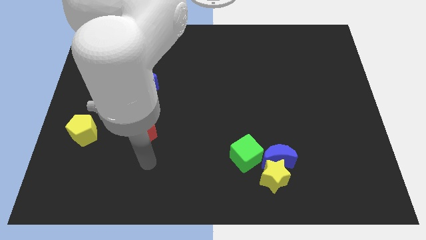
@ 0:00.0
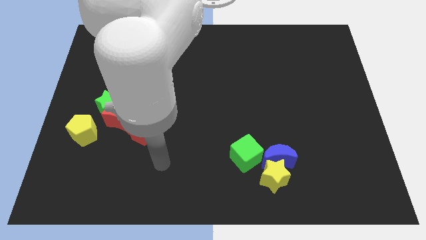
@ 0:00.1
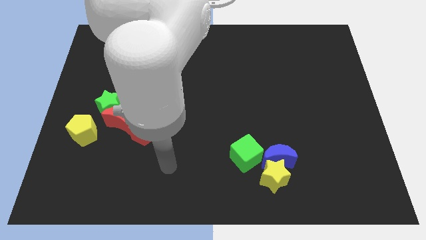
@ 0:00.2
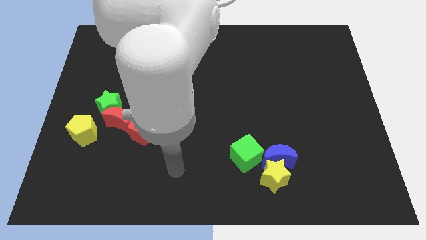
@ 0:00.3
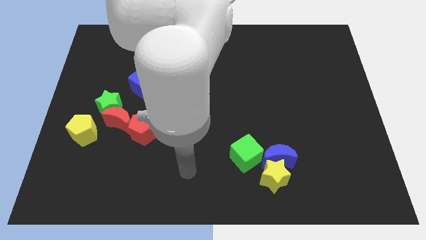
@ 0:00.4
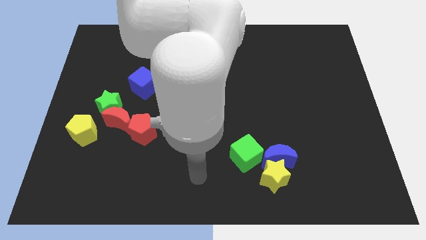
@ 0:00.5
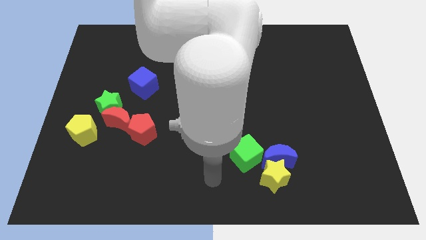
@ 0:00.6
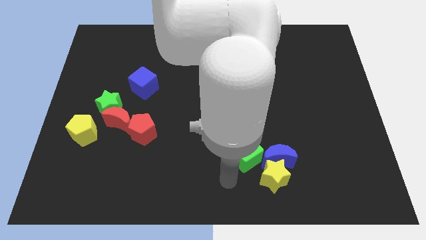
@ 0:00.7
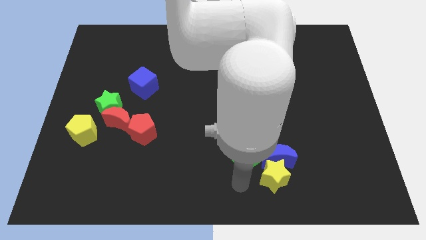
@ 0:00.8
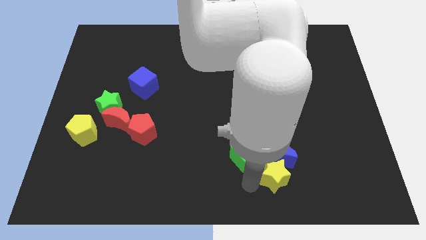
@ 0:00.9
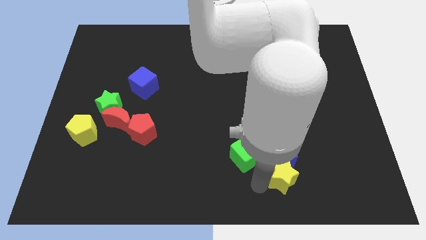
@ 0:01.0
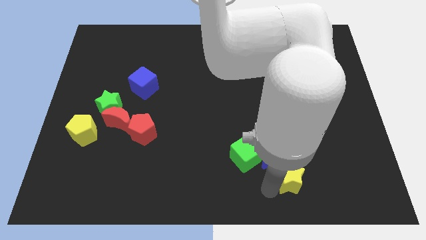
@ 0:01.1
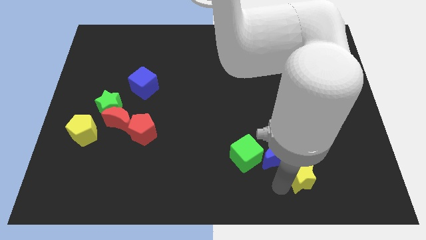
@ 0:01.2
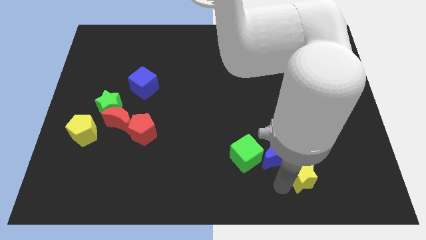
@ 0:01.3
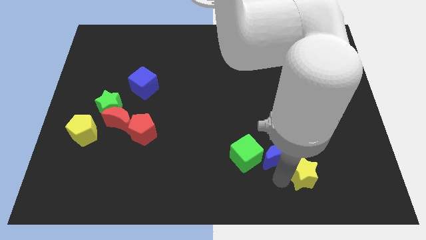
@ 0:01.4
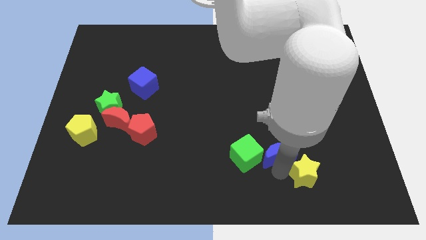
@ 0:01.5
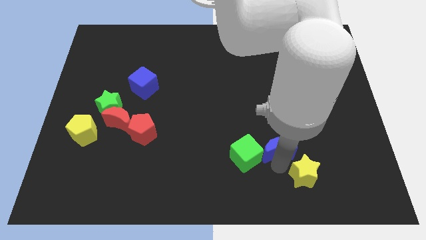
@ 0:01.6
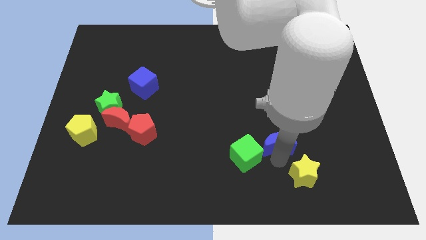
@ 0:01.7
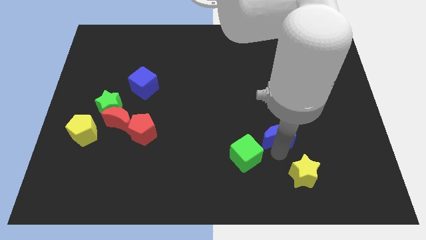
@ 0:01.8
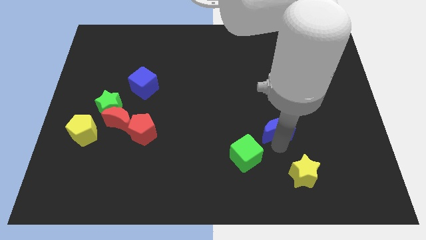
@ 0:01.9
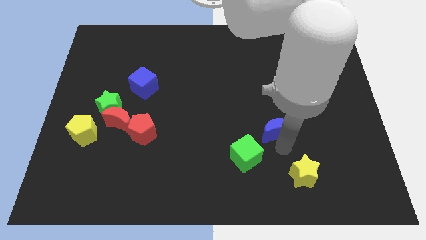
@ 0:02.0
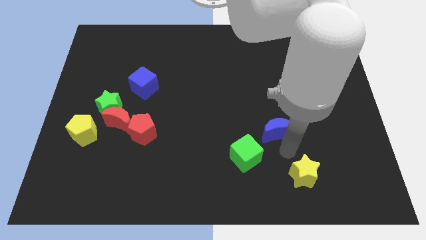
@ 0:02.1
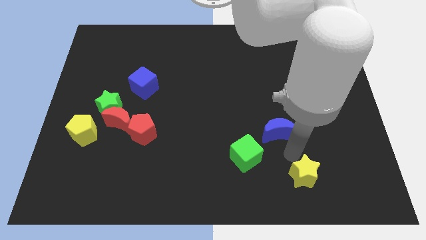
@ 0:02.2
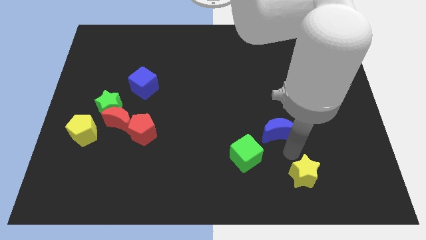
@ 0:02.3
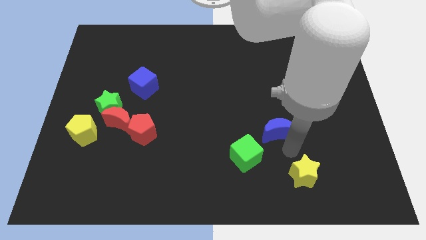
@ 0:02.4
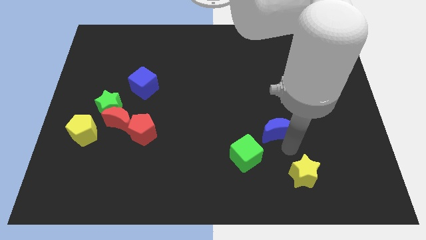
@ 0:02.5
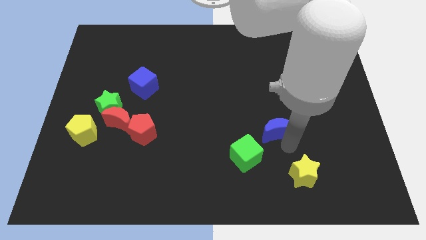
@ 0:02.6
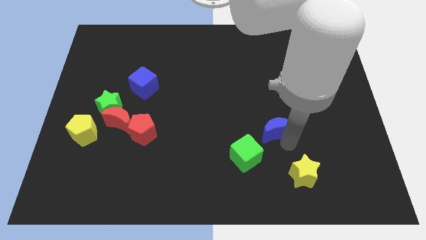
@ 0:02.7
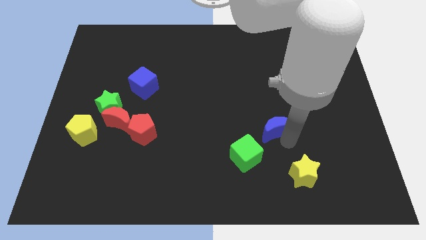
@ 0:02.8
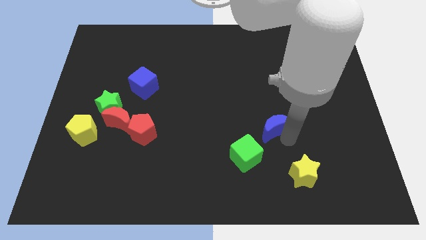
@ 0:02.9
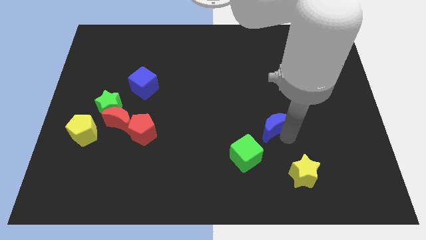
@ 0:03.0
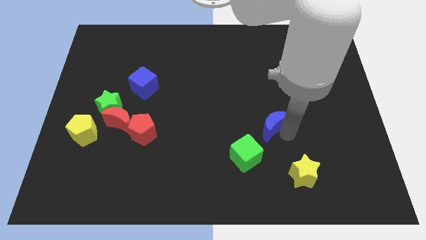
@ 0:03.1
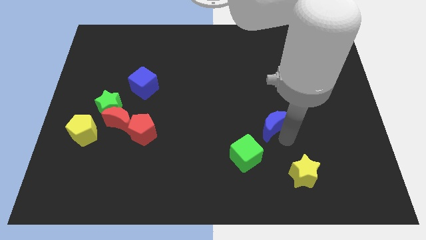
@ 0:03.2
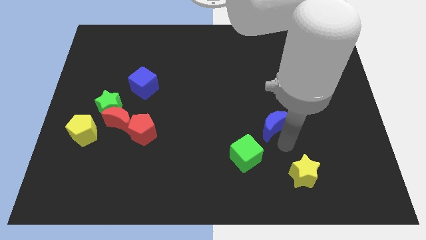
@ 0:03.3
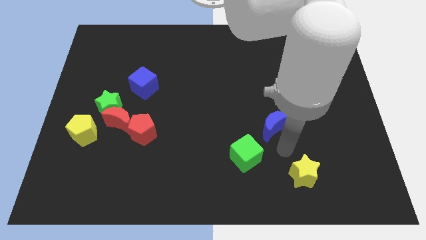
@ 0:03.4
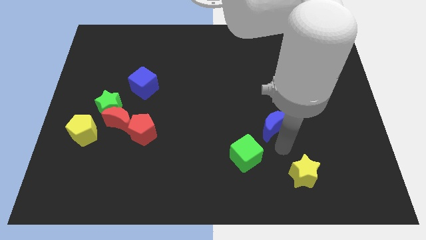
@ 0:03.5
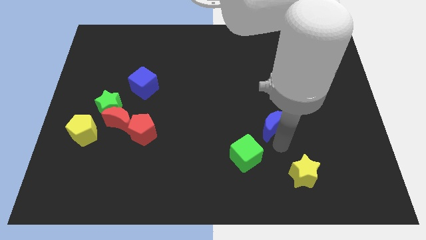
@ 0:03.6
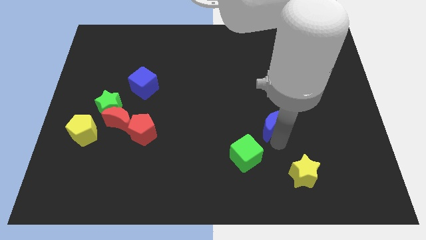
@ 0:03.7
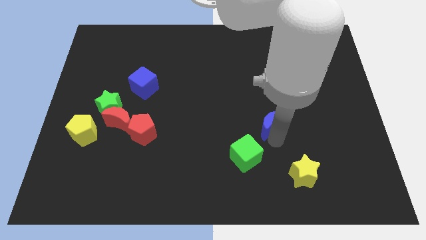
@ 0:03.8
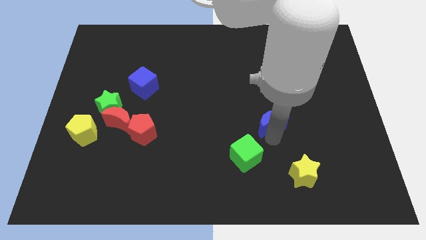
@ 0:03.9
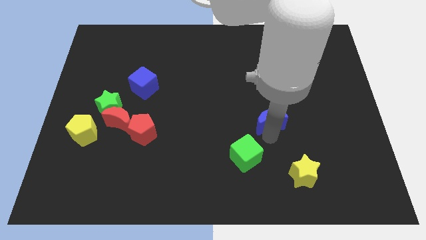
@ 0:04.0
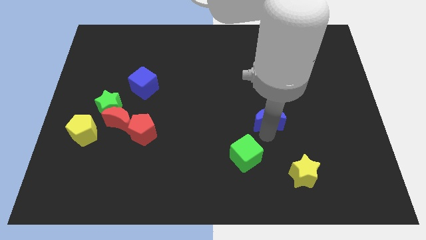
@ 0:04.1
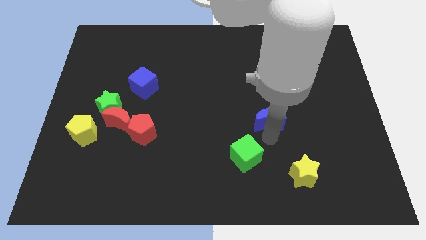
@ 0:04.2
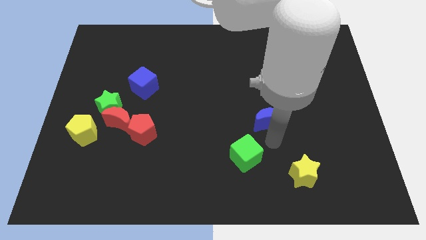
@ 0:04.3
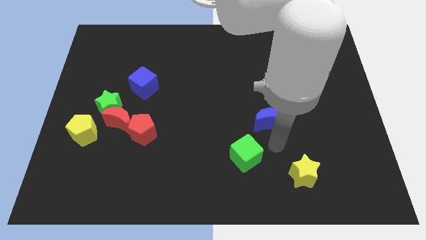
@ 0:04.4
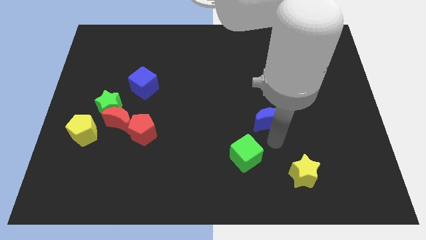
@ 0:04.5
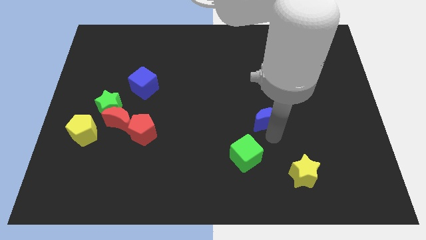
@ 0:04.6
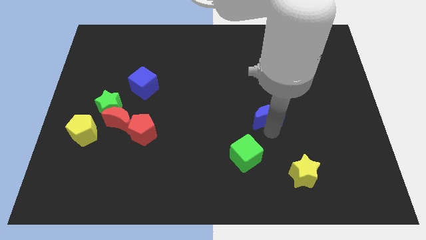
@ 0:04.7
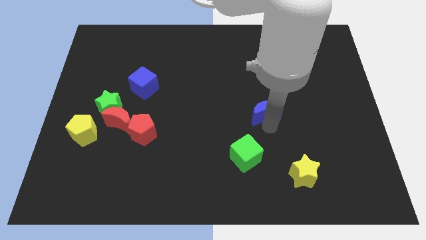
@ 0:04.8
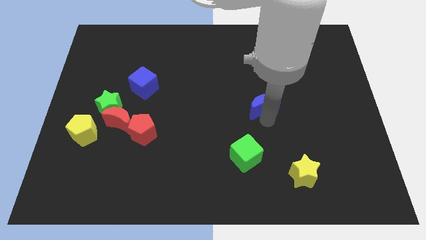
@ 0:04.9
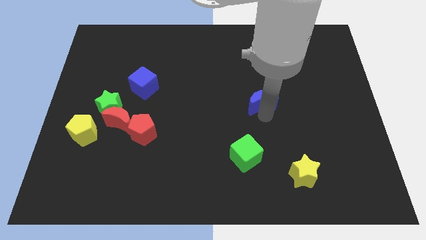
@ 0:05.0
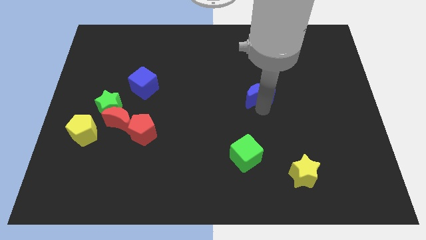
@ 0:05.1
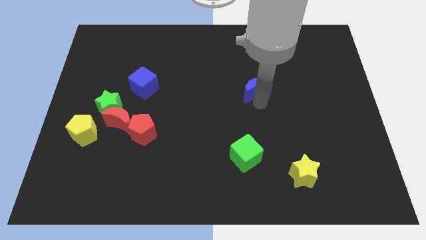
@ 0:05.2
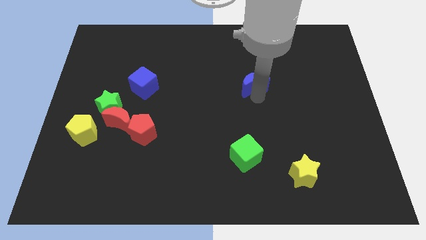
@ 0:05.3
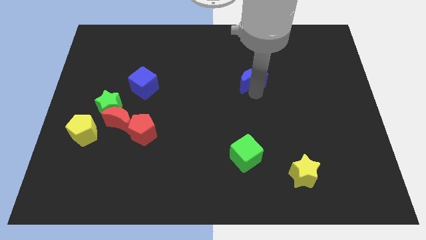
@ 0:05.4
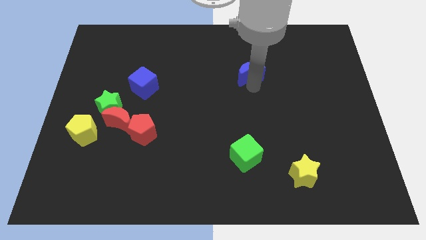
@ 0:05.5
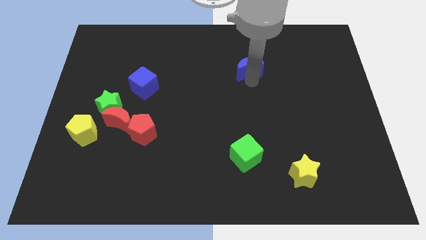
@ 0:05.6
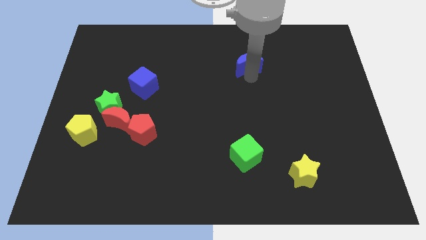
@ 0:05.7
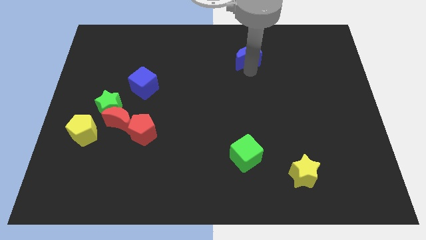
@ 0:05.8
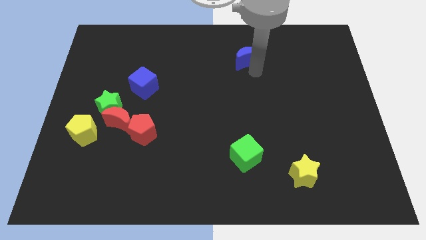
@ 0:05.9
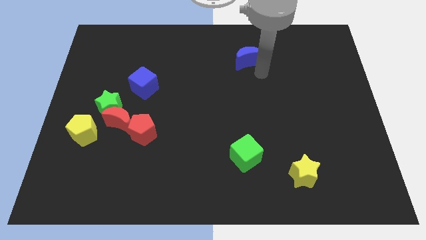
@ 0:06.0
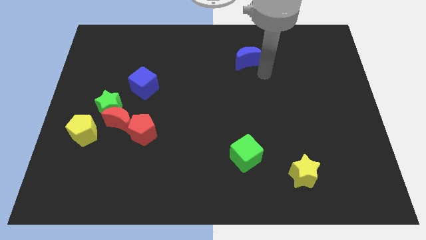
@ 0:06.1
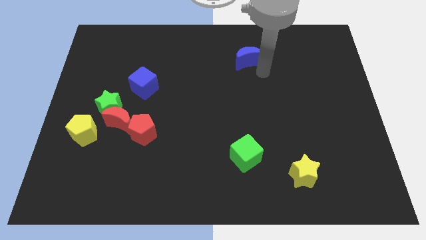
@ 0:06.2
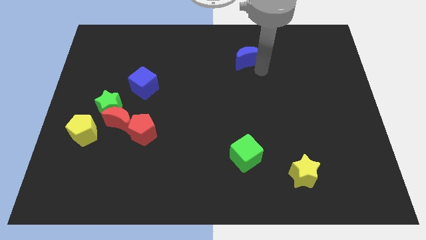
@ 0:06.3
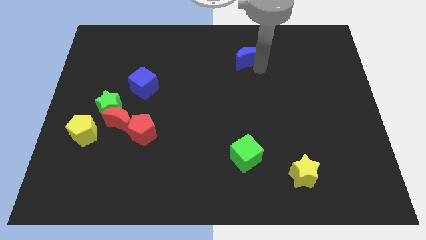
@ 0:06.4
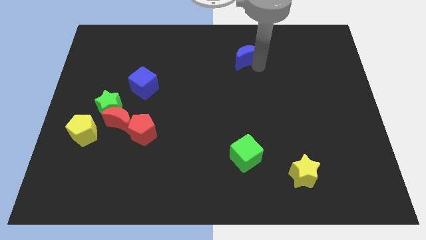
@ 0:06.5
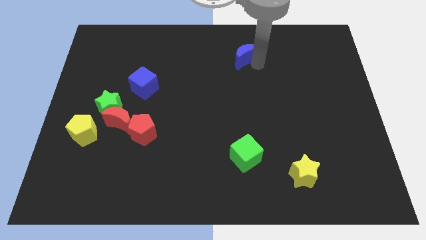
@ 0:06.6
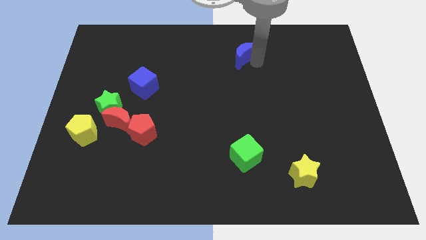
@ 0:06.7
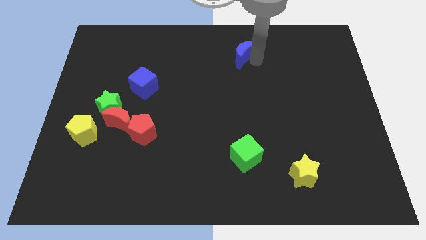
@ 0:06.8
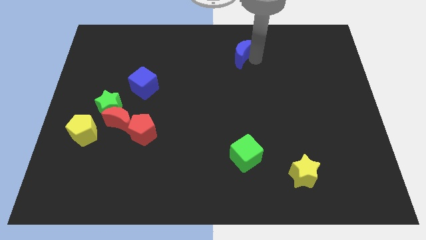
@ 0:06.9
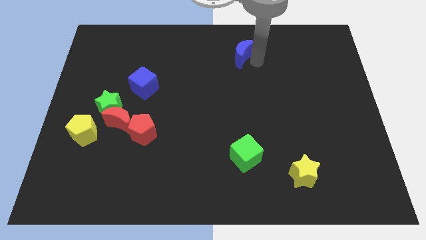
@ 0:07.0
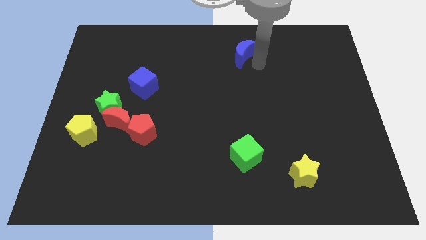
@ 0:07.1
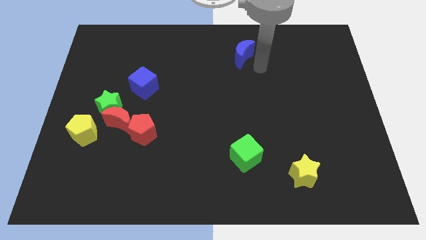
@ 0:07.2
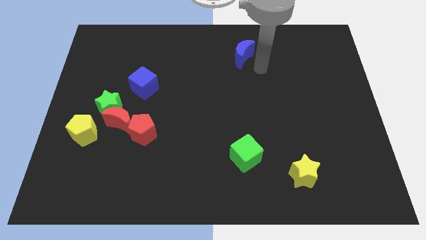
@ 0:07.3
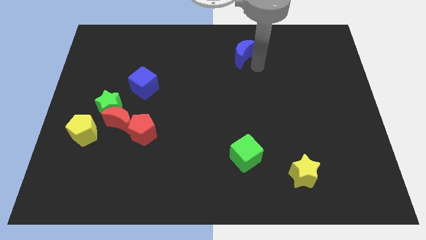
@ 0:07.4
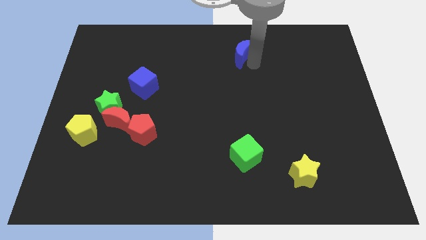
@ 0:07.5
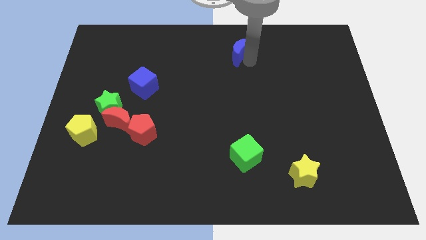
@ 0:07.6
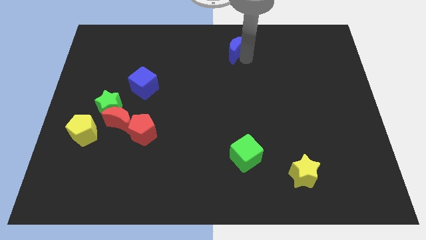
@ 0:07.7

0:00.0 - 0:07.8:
put the blue moon to the top

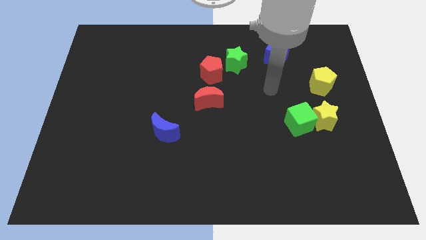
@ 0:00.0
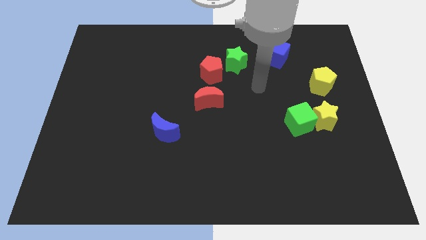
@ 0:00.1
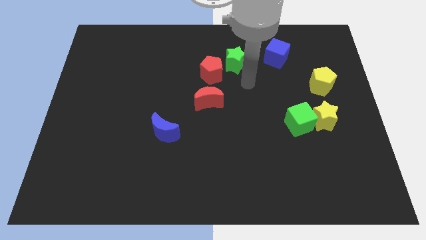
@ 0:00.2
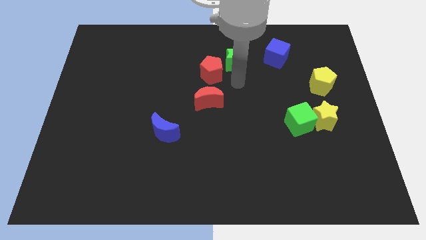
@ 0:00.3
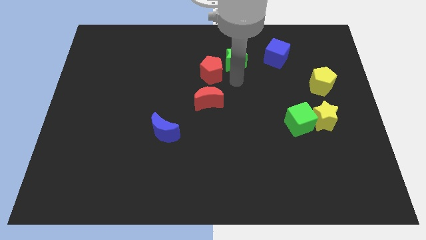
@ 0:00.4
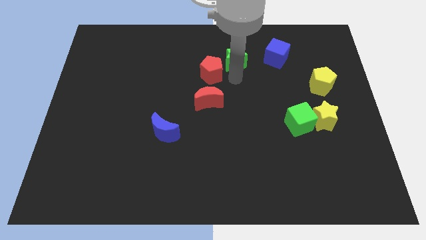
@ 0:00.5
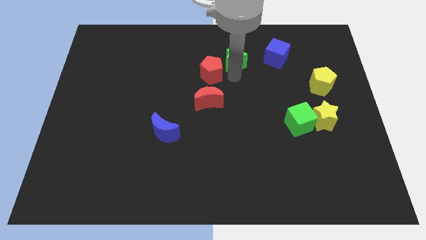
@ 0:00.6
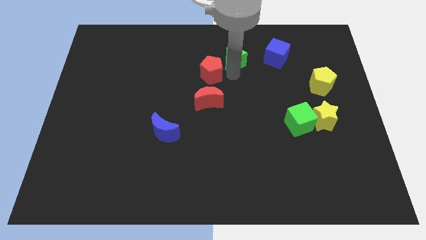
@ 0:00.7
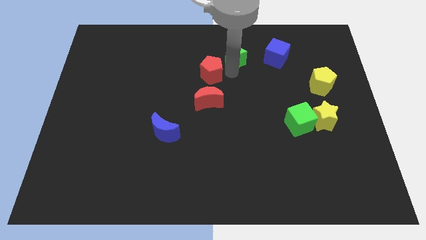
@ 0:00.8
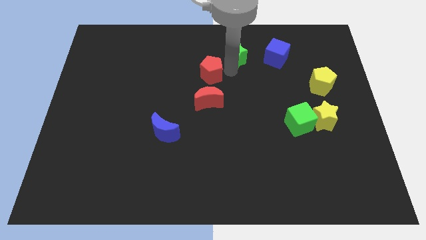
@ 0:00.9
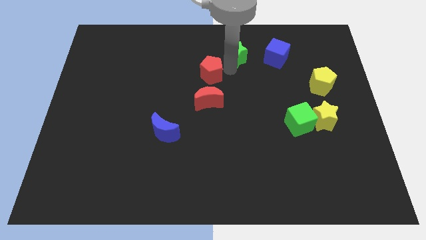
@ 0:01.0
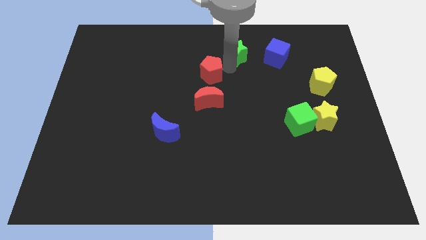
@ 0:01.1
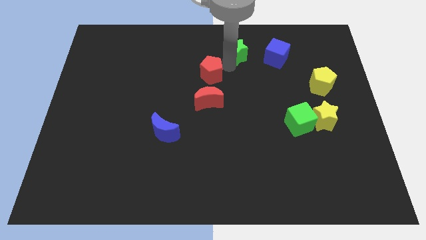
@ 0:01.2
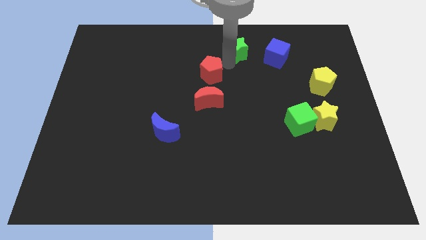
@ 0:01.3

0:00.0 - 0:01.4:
push the green star to the top side
